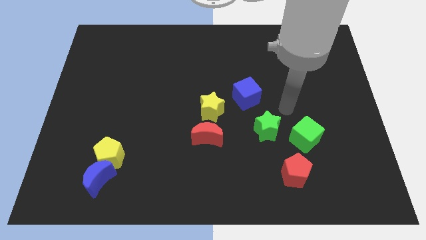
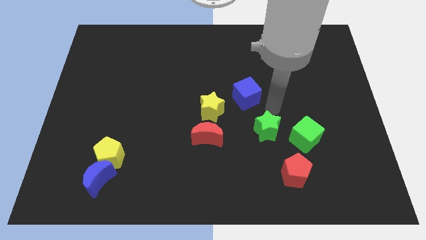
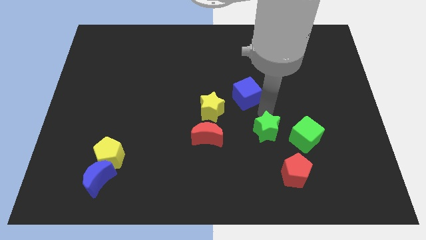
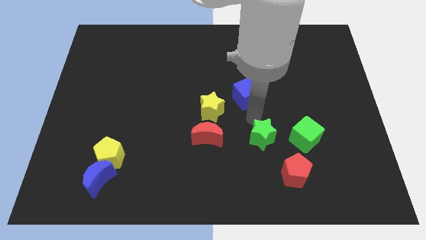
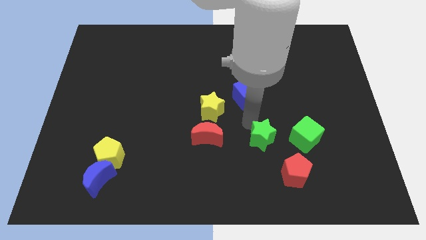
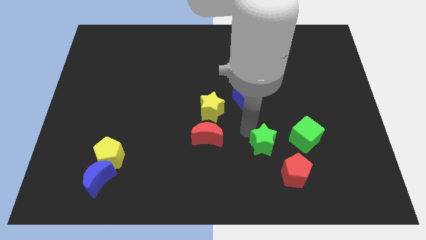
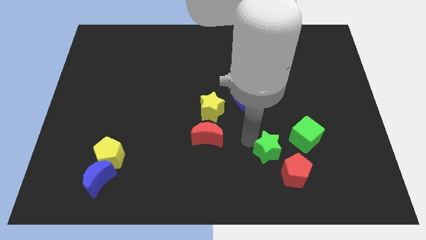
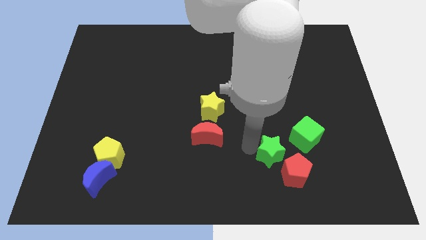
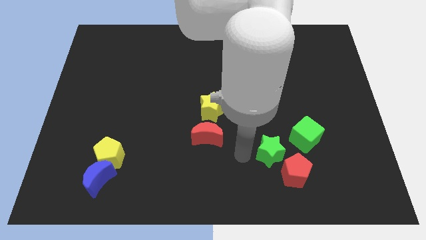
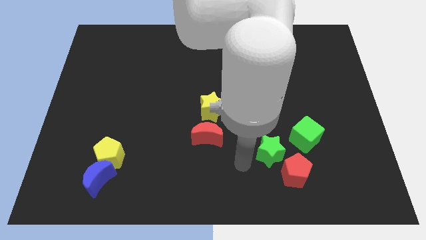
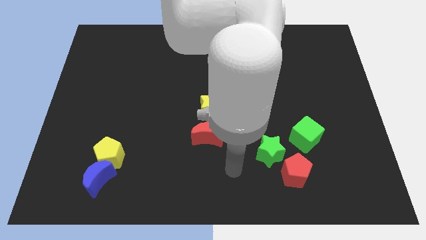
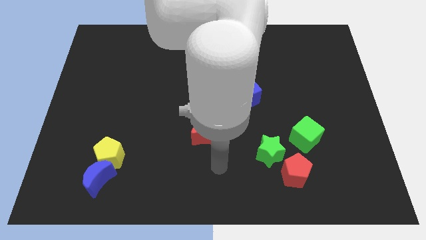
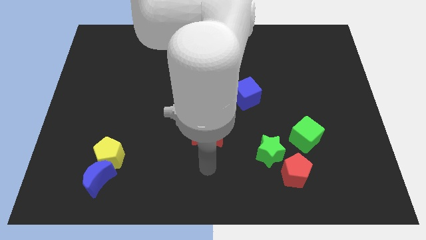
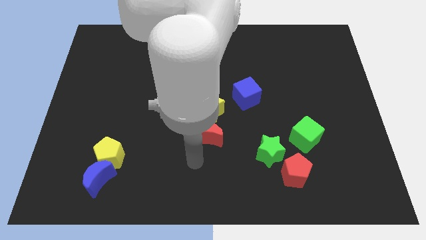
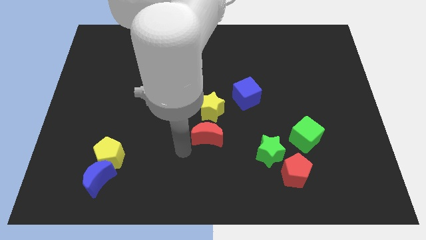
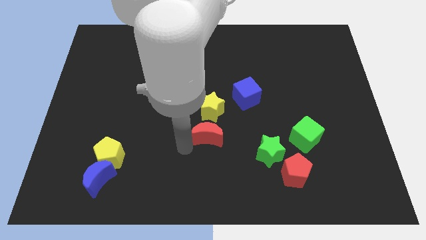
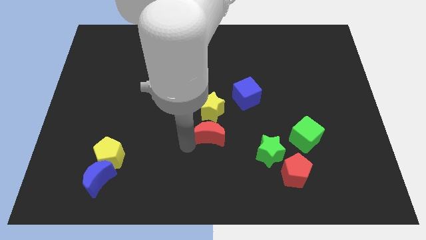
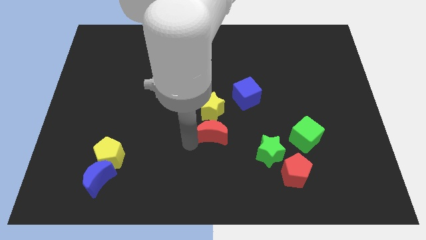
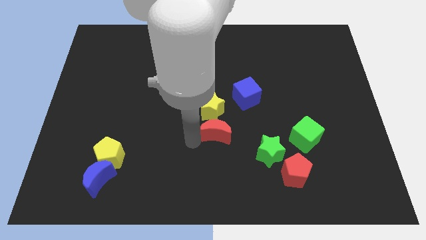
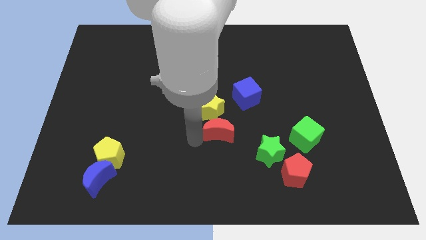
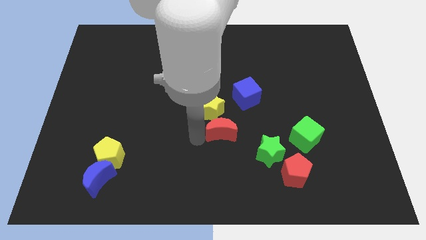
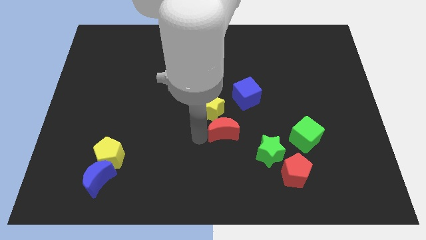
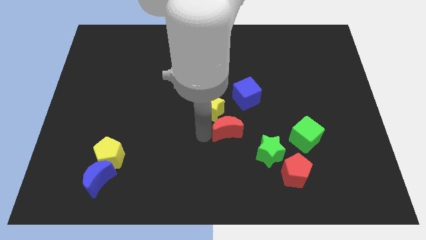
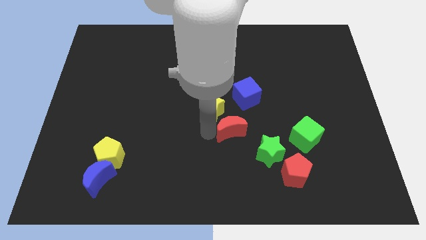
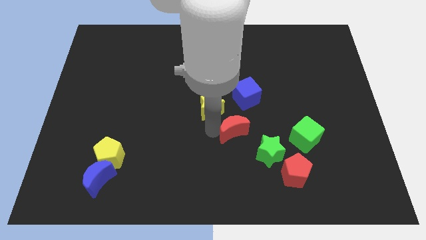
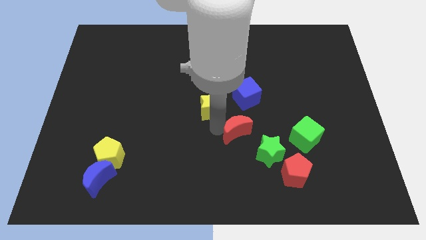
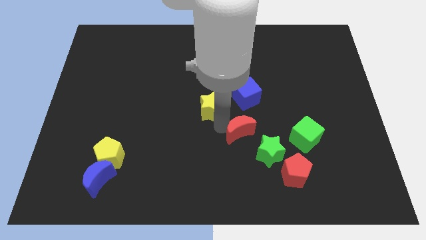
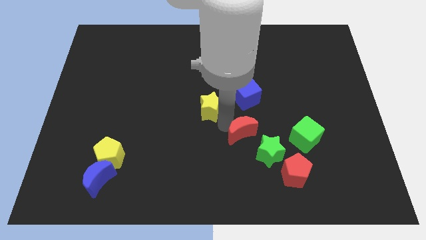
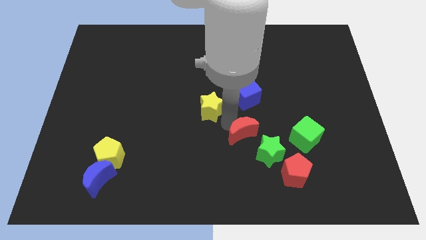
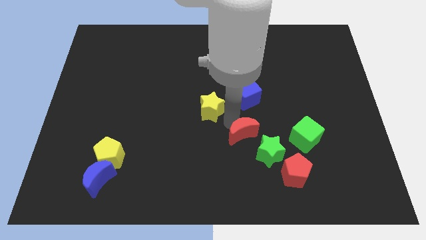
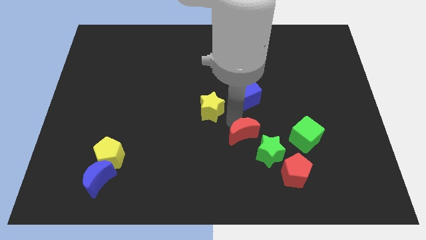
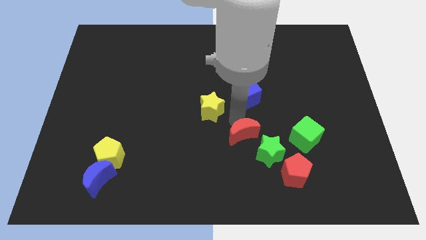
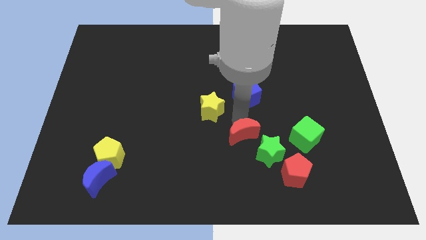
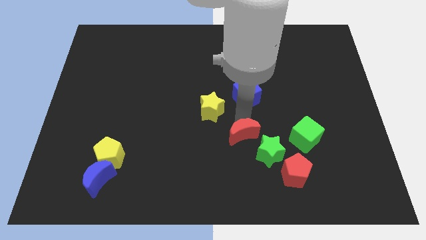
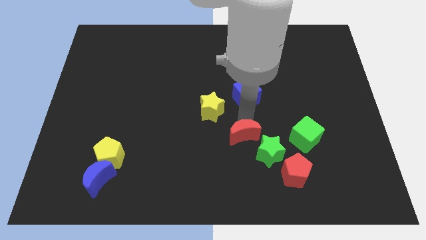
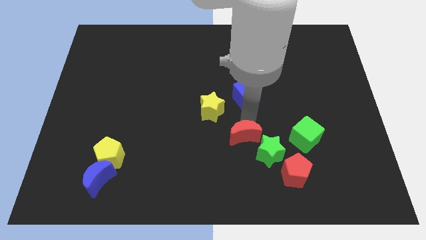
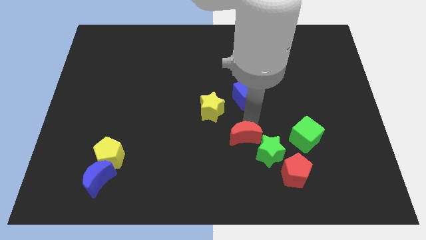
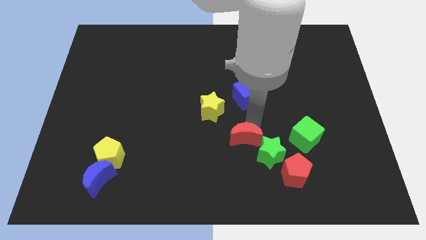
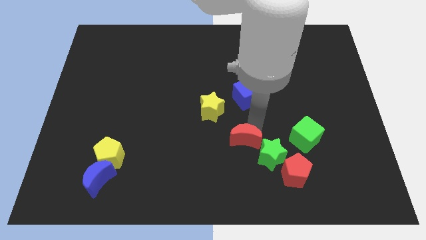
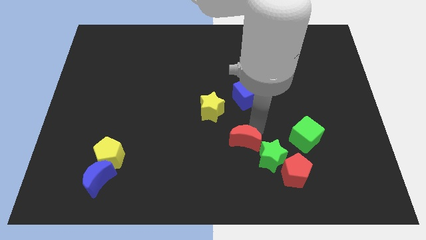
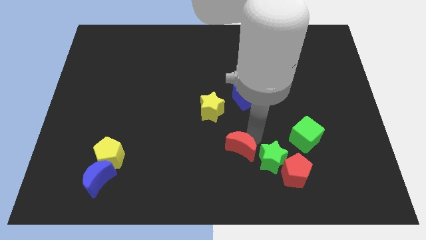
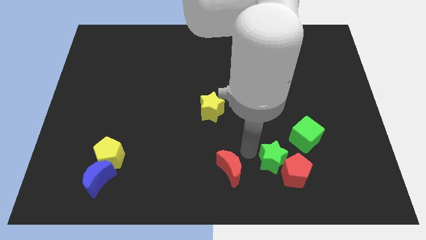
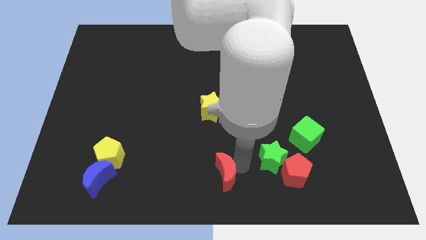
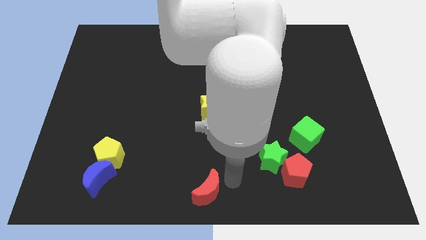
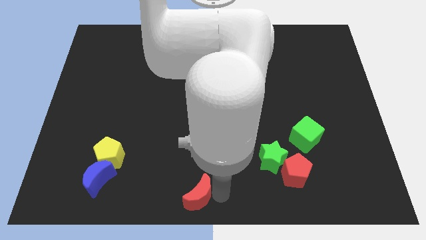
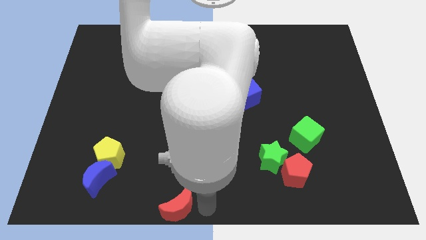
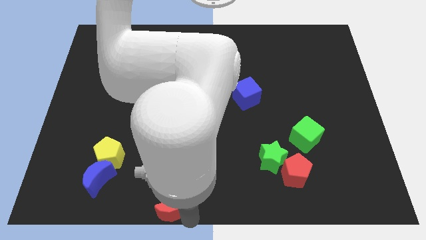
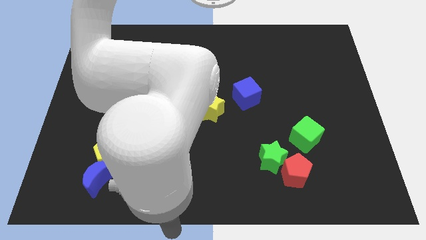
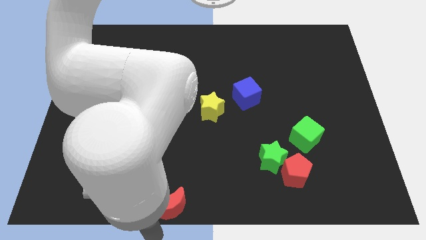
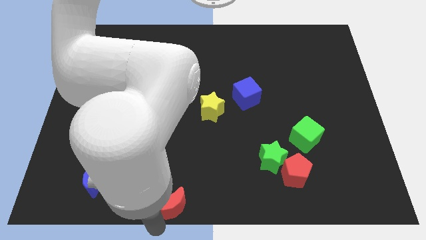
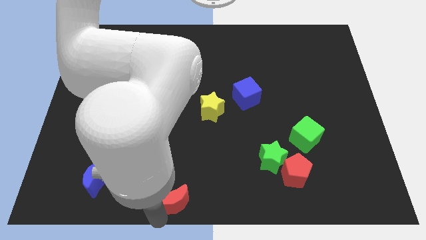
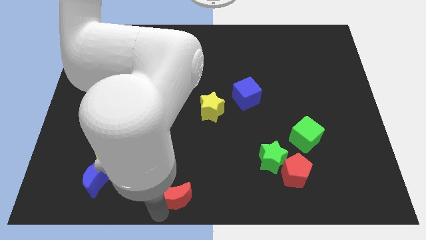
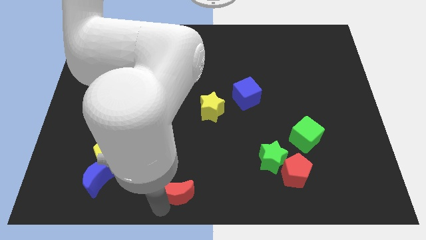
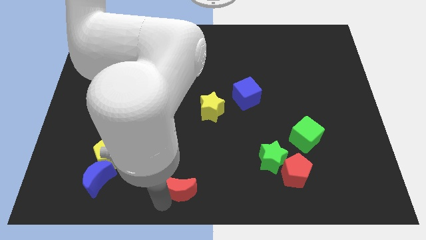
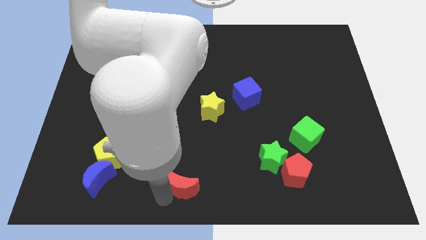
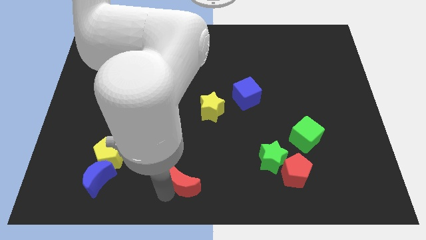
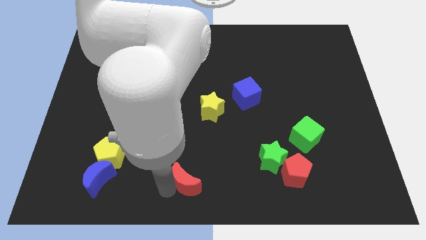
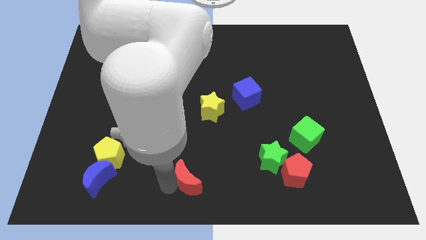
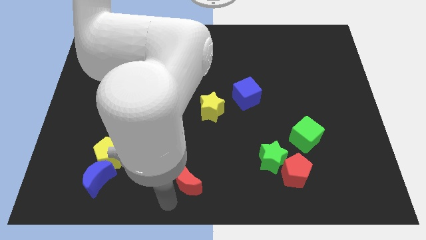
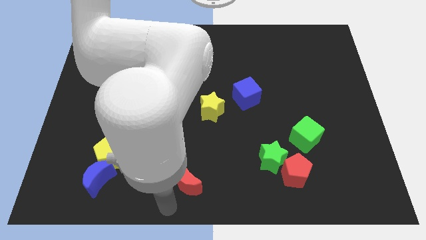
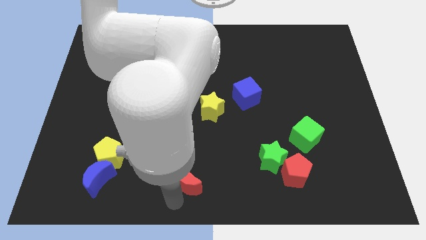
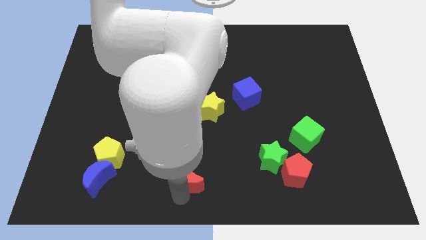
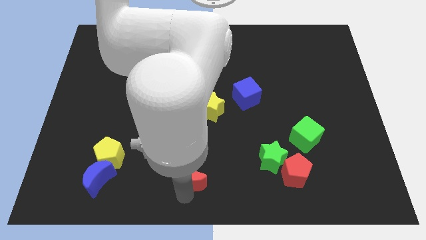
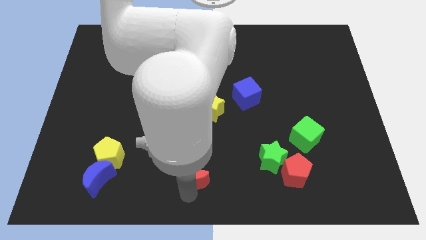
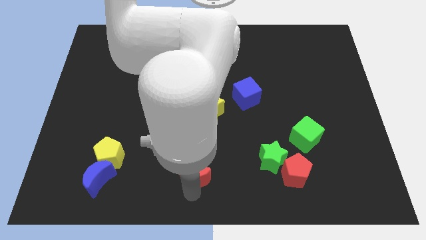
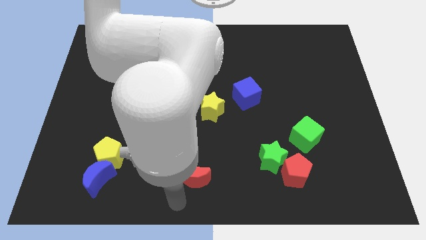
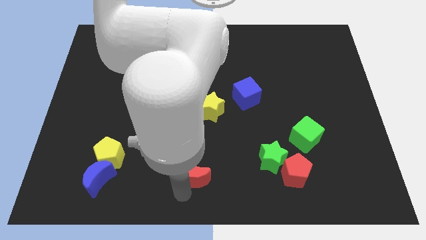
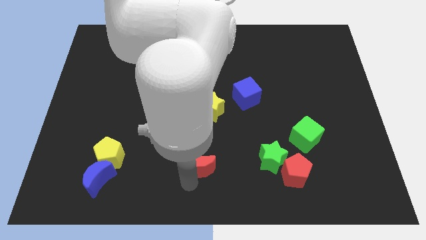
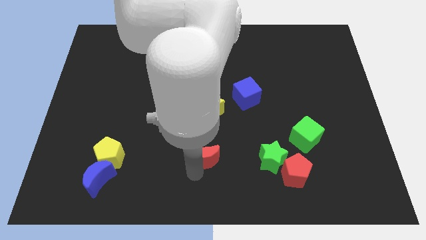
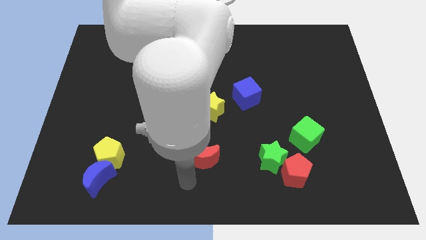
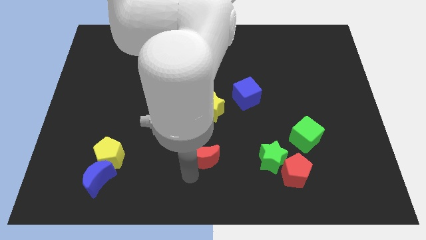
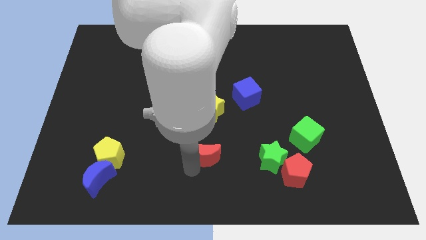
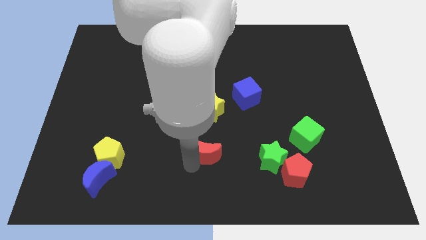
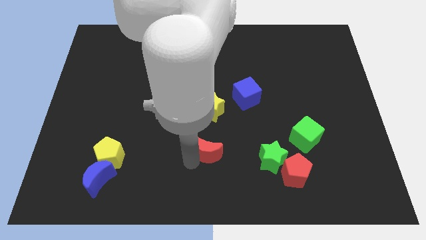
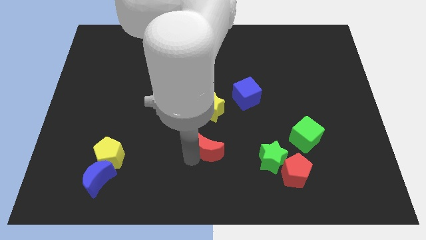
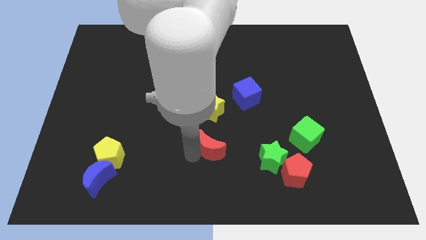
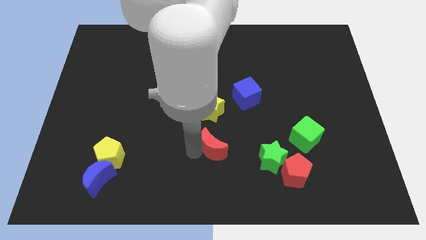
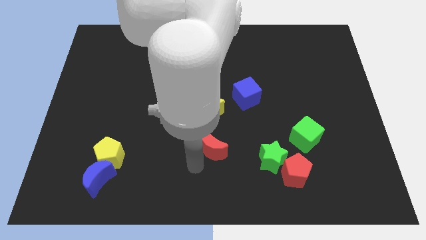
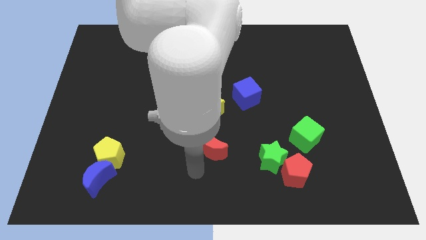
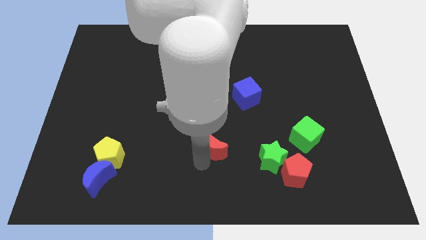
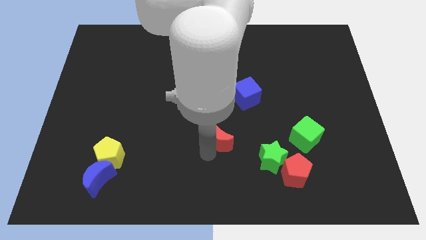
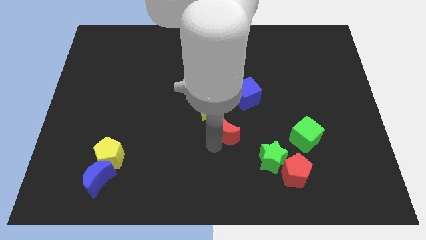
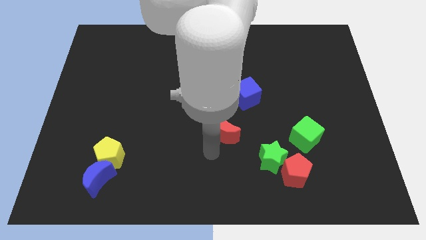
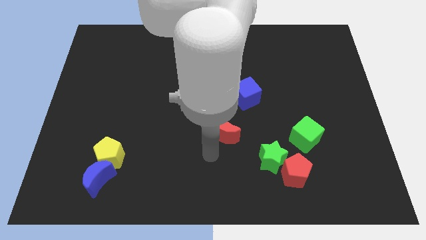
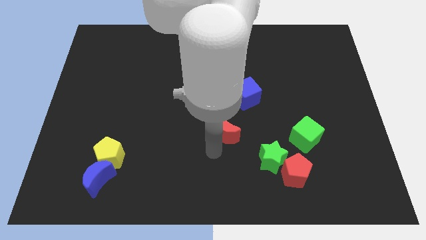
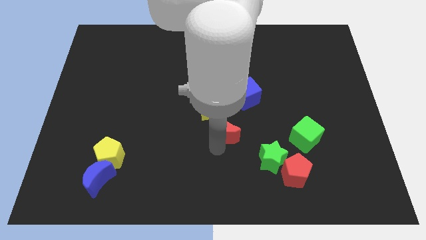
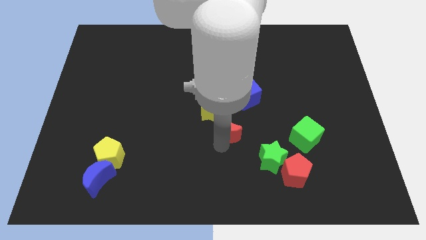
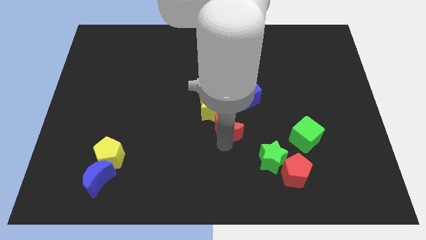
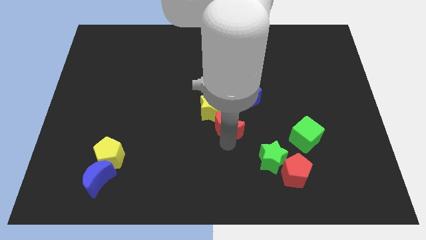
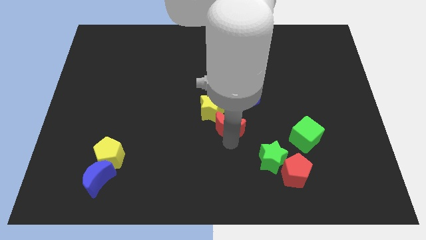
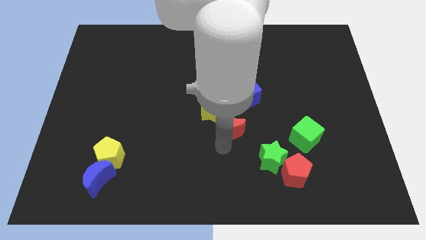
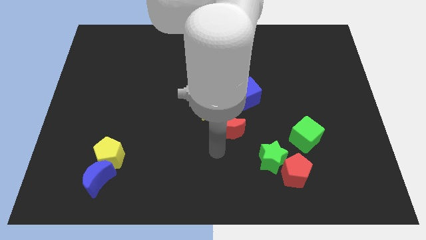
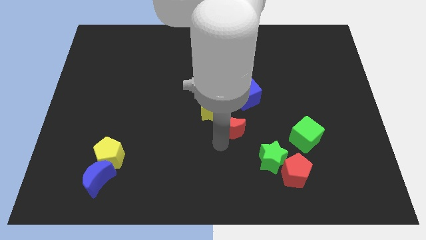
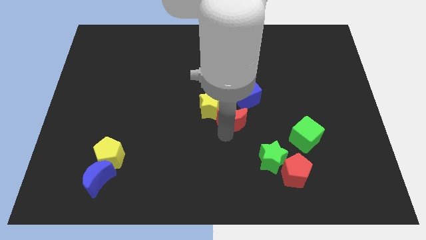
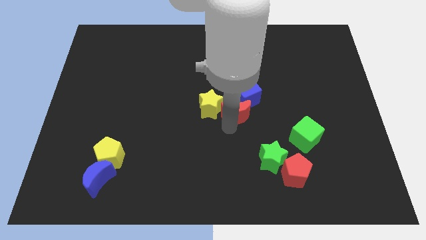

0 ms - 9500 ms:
move the red moon close to the blue cube
